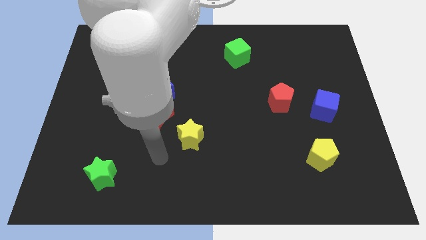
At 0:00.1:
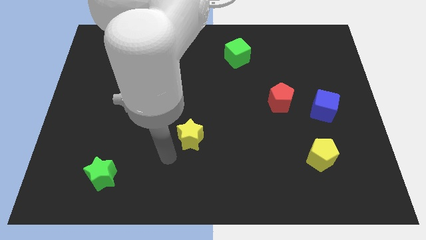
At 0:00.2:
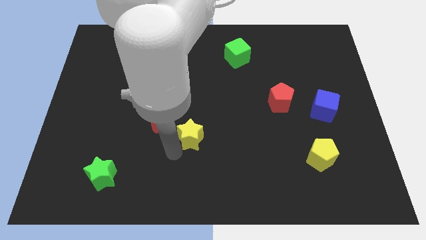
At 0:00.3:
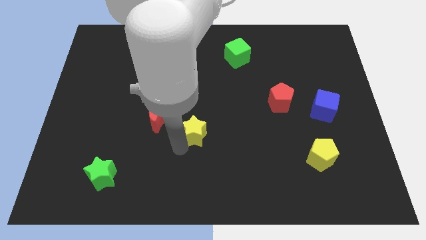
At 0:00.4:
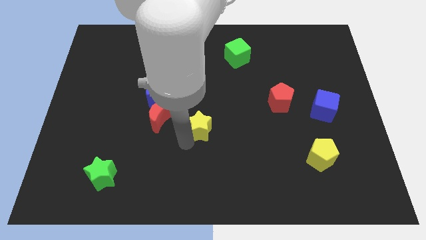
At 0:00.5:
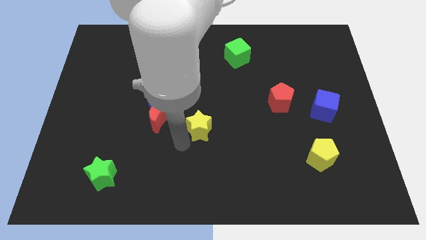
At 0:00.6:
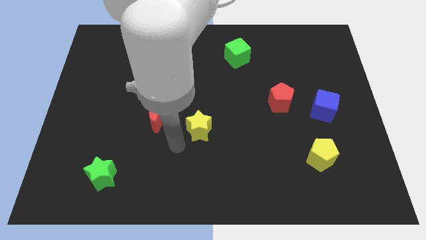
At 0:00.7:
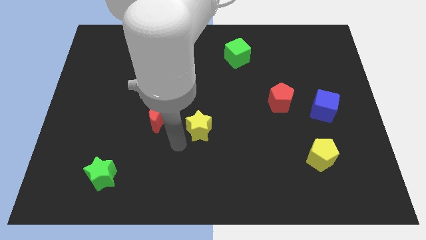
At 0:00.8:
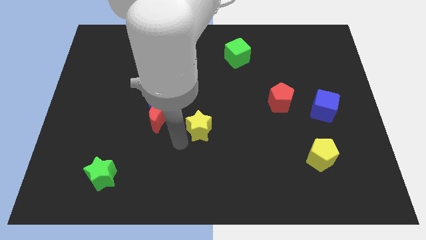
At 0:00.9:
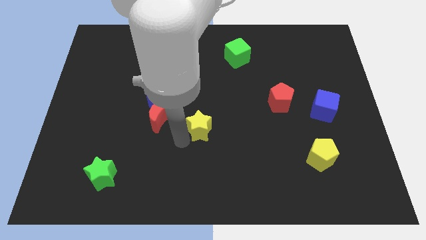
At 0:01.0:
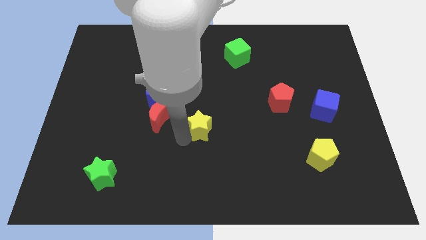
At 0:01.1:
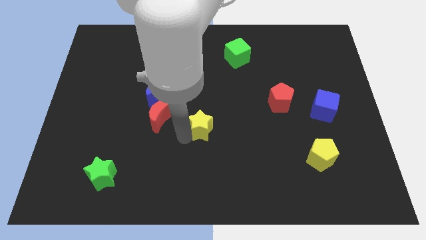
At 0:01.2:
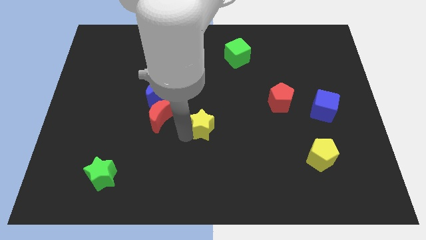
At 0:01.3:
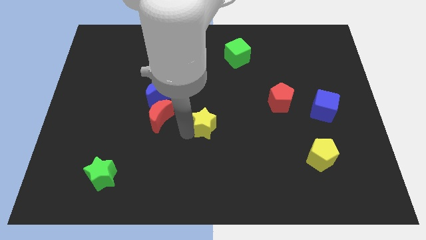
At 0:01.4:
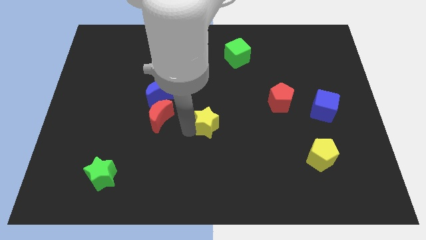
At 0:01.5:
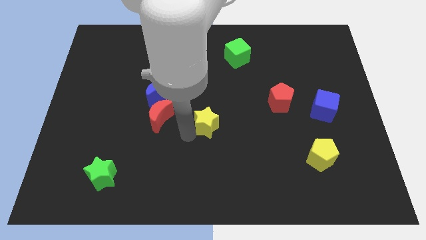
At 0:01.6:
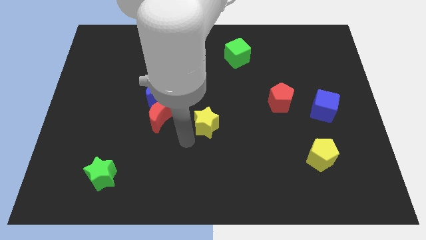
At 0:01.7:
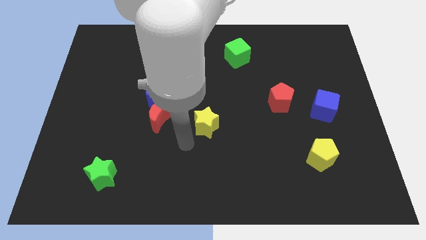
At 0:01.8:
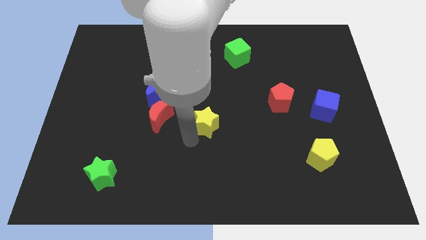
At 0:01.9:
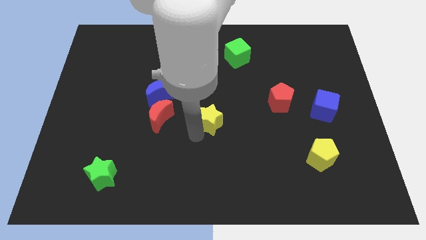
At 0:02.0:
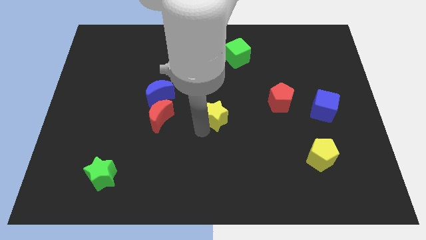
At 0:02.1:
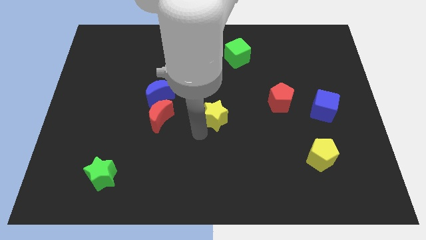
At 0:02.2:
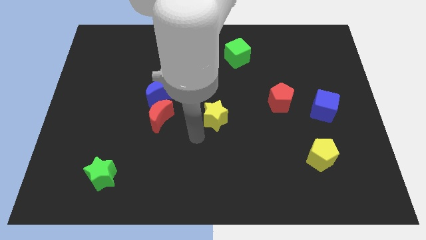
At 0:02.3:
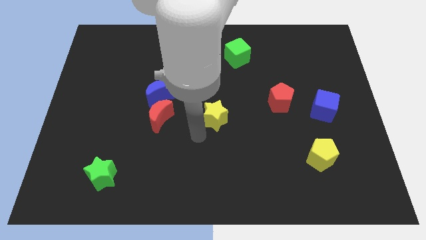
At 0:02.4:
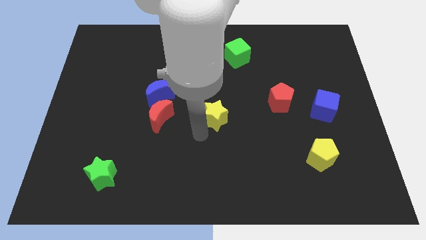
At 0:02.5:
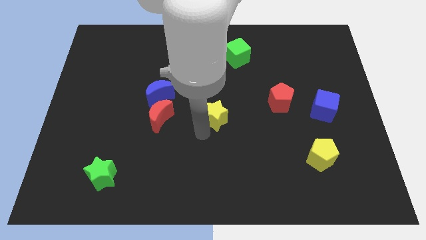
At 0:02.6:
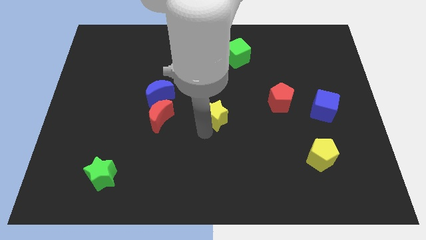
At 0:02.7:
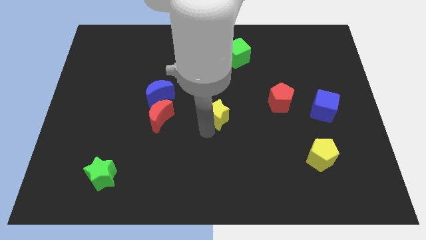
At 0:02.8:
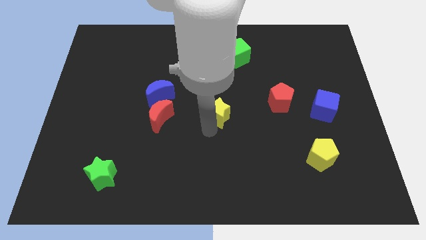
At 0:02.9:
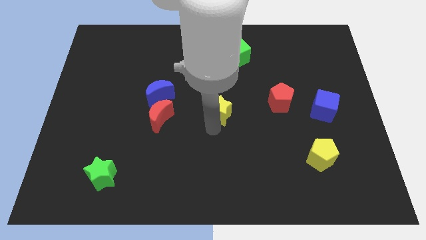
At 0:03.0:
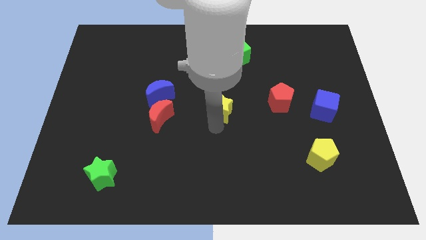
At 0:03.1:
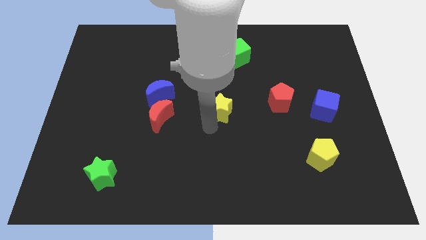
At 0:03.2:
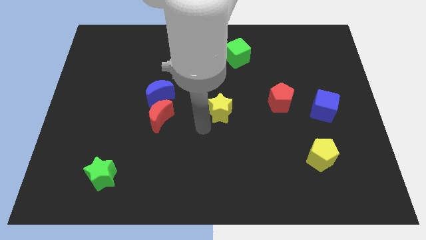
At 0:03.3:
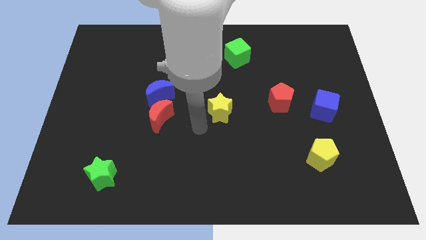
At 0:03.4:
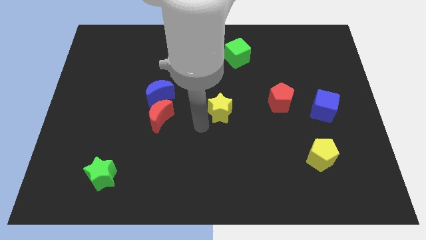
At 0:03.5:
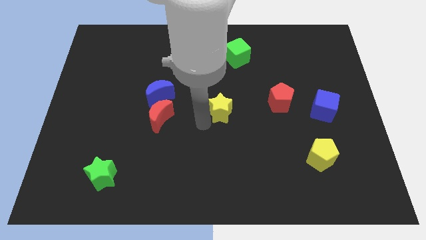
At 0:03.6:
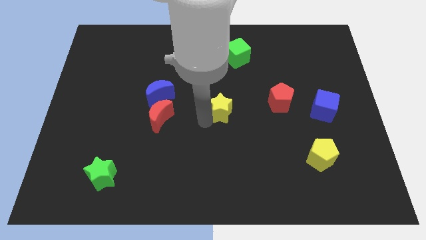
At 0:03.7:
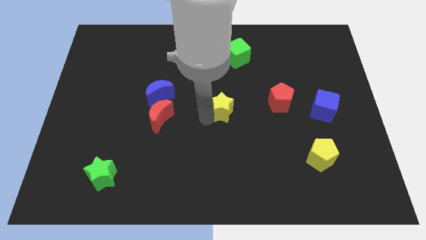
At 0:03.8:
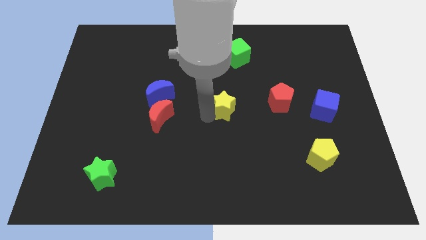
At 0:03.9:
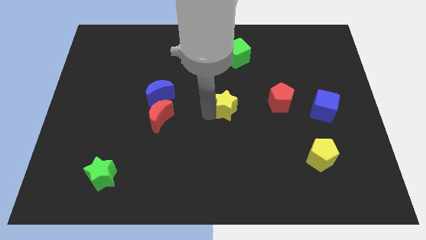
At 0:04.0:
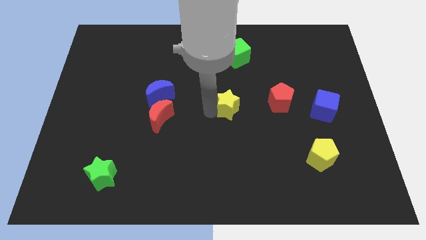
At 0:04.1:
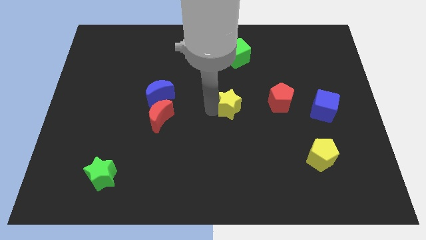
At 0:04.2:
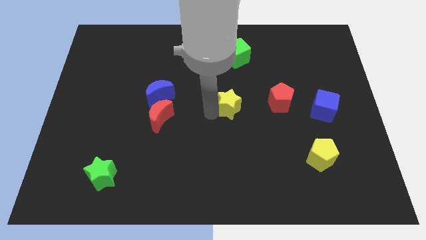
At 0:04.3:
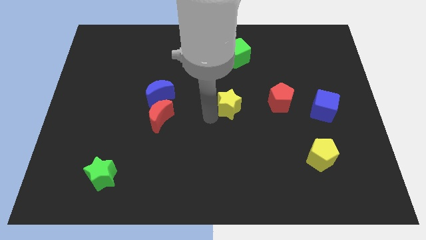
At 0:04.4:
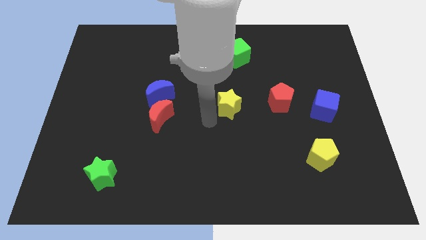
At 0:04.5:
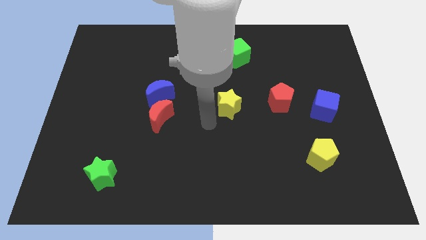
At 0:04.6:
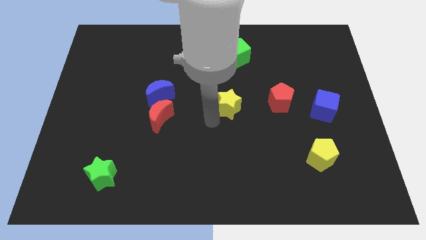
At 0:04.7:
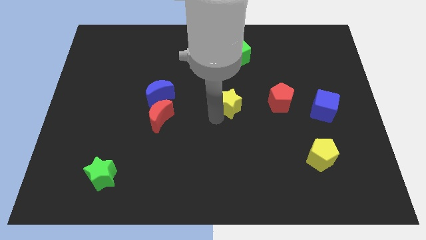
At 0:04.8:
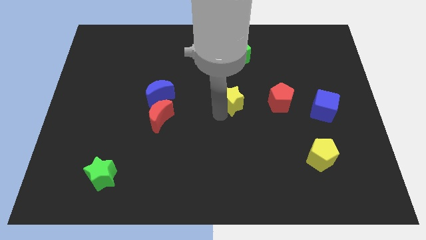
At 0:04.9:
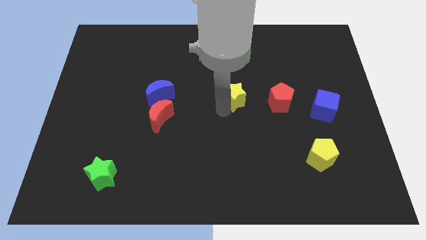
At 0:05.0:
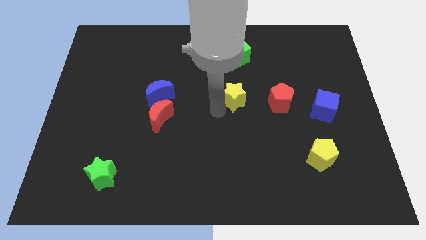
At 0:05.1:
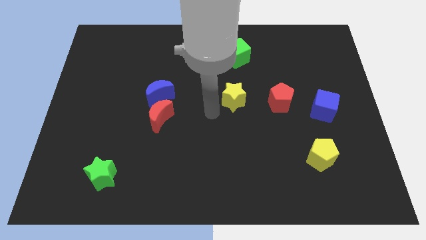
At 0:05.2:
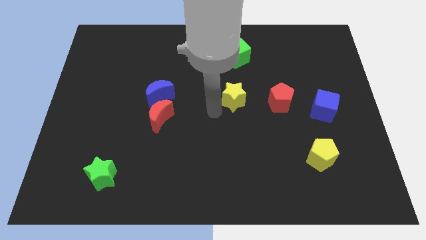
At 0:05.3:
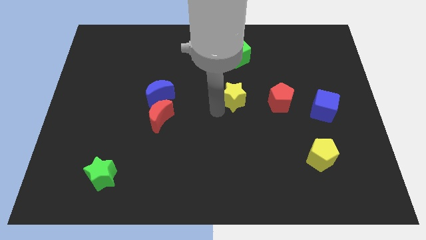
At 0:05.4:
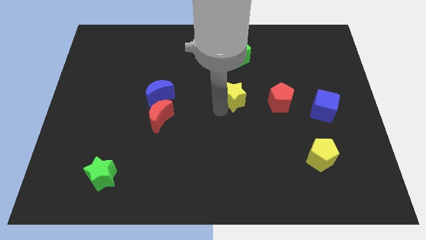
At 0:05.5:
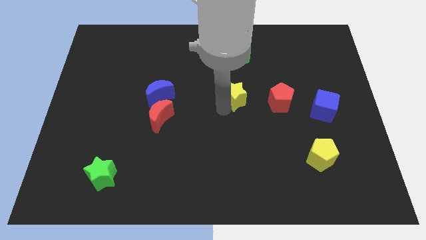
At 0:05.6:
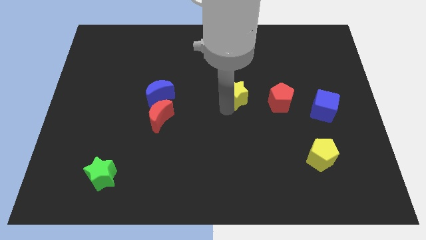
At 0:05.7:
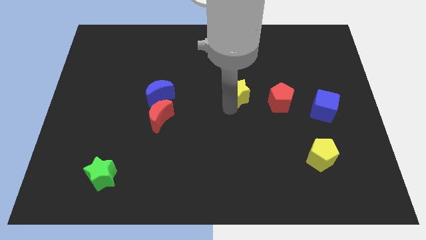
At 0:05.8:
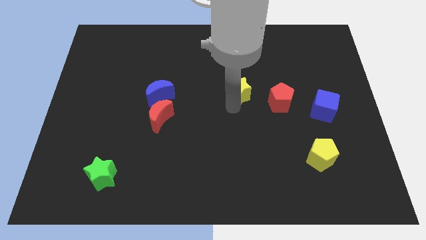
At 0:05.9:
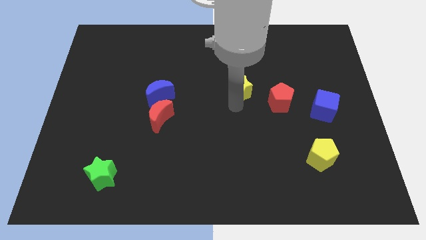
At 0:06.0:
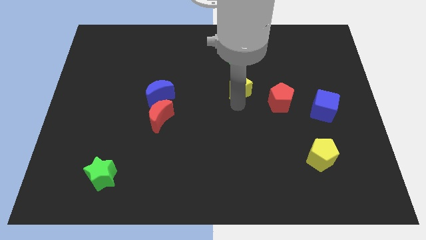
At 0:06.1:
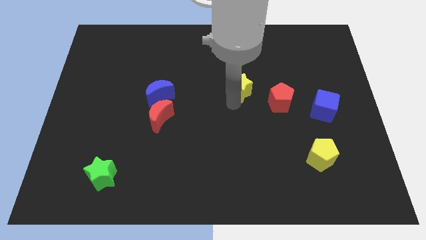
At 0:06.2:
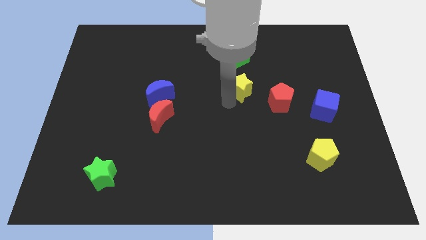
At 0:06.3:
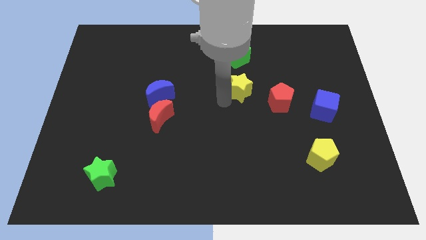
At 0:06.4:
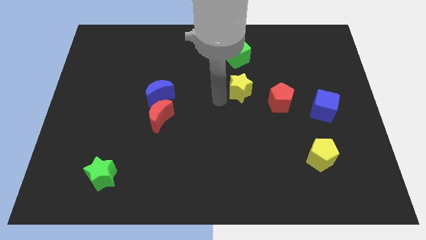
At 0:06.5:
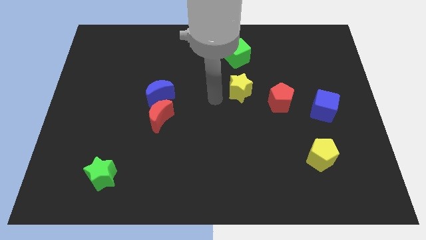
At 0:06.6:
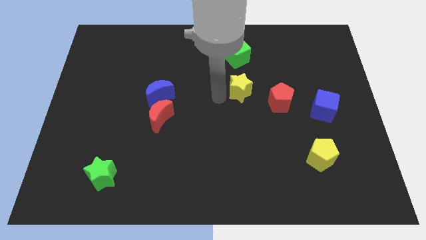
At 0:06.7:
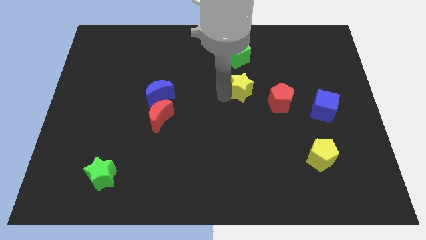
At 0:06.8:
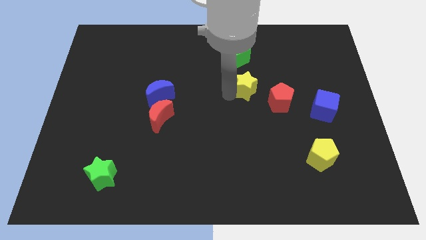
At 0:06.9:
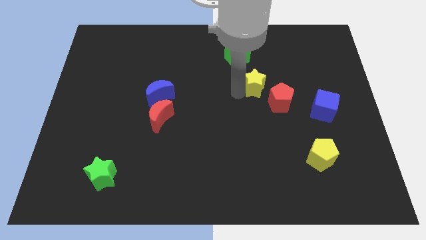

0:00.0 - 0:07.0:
slide the yellow star upwards and then to the right

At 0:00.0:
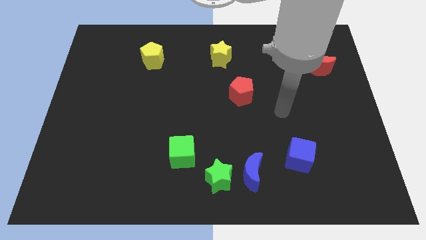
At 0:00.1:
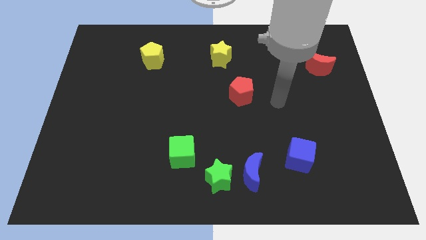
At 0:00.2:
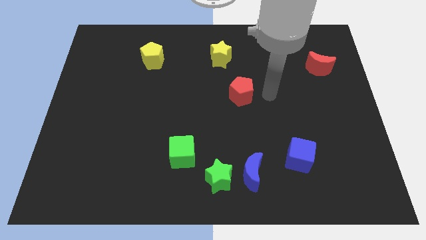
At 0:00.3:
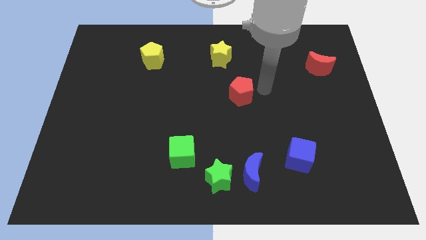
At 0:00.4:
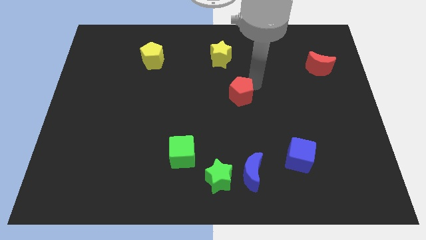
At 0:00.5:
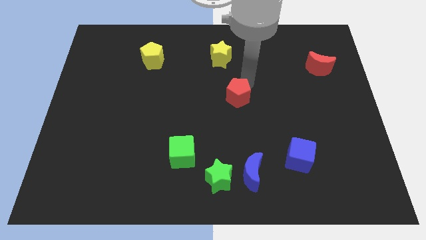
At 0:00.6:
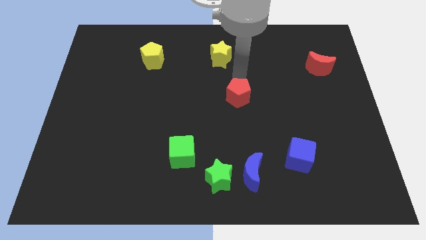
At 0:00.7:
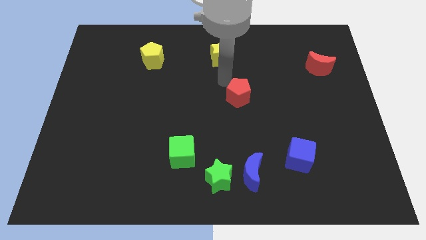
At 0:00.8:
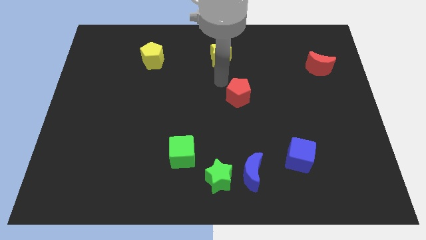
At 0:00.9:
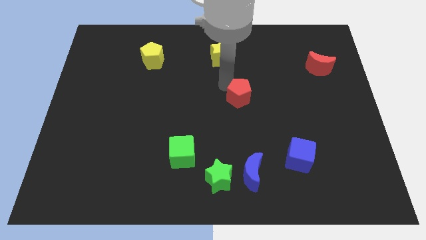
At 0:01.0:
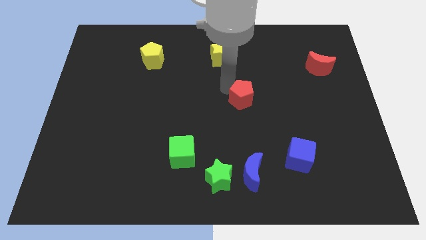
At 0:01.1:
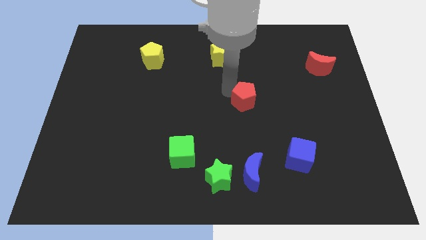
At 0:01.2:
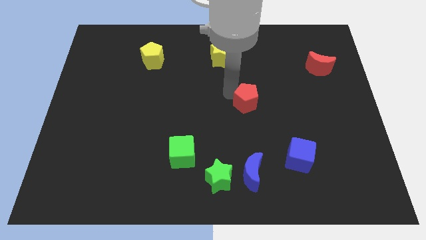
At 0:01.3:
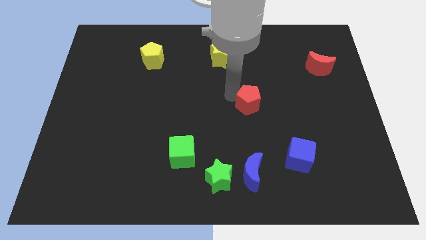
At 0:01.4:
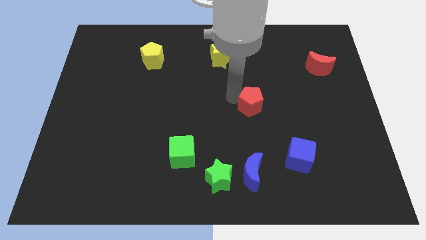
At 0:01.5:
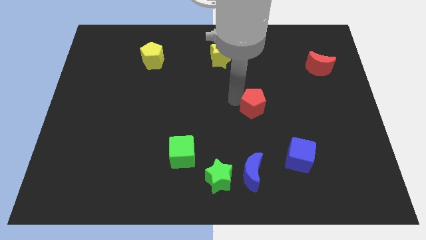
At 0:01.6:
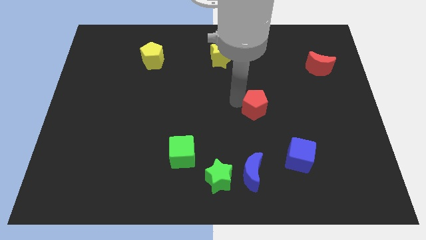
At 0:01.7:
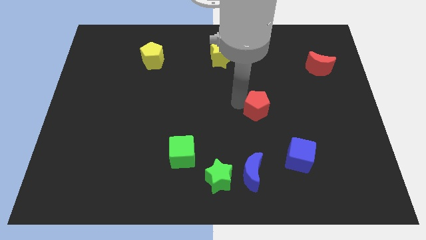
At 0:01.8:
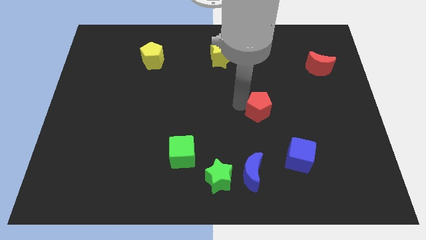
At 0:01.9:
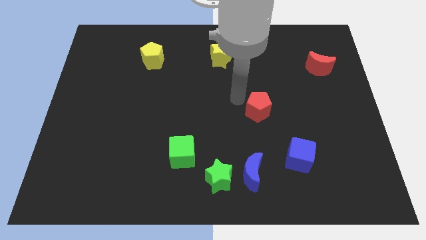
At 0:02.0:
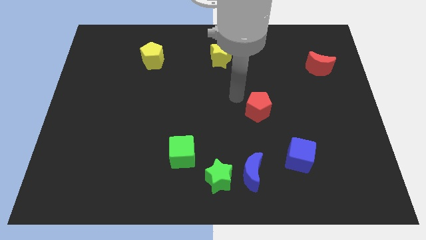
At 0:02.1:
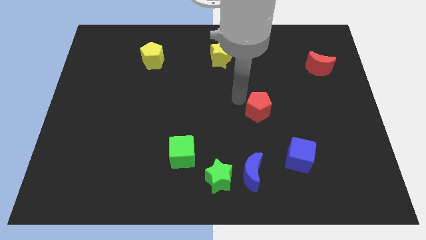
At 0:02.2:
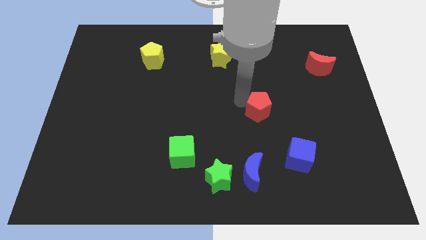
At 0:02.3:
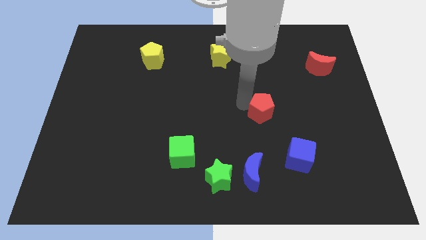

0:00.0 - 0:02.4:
slightly push the red pentagon downwards and right diagonally
